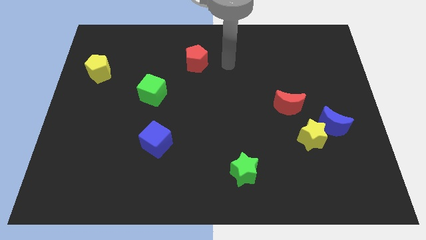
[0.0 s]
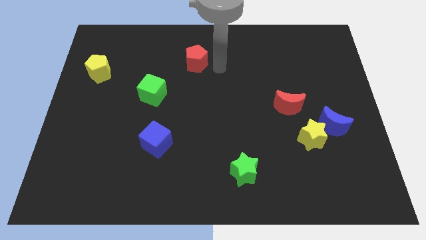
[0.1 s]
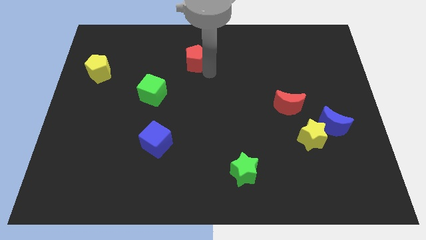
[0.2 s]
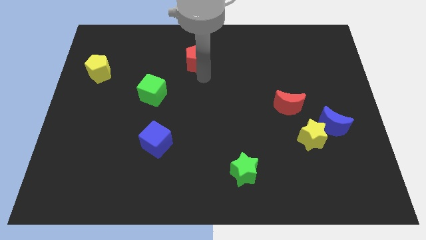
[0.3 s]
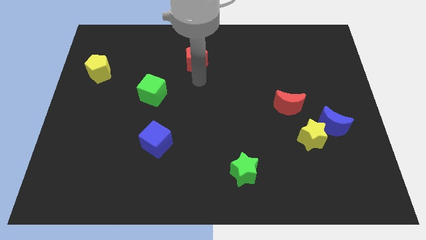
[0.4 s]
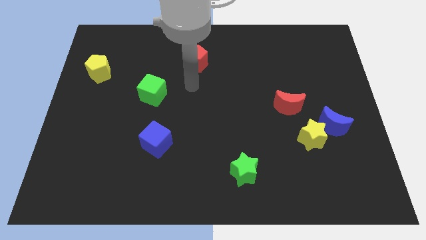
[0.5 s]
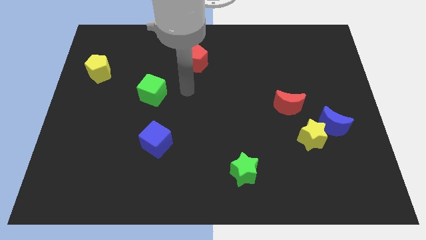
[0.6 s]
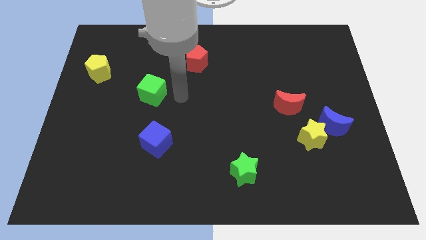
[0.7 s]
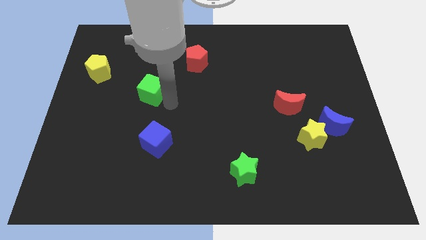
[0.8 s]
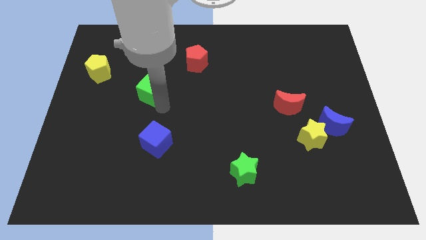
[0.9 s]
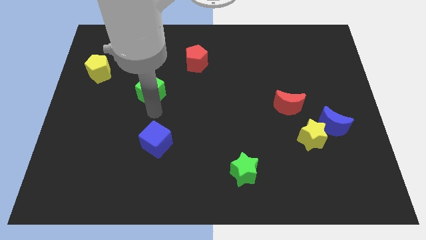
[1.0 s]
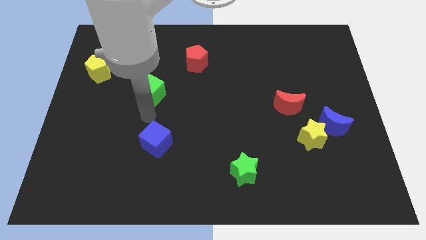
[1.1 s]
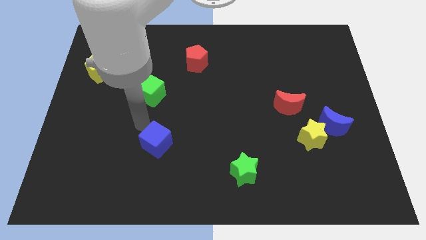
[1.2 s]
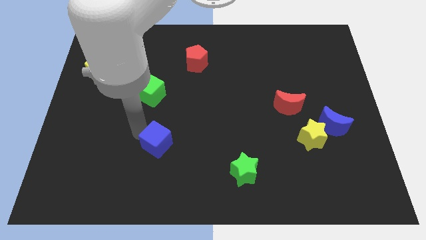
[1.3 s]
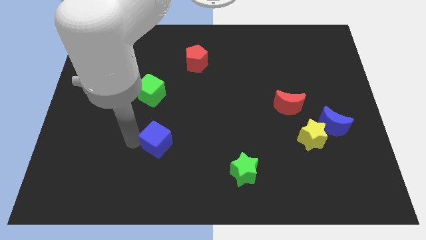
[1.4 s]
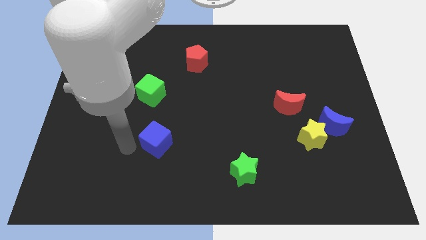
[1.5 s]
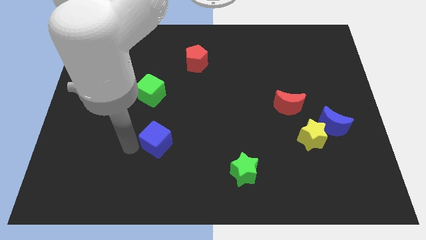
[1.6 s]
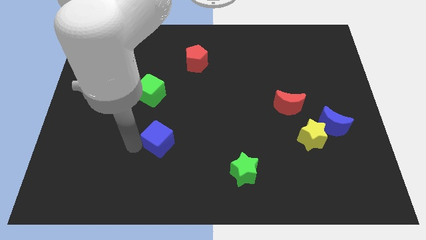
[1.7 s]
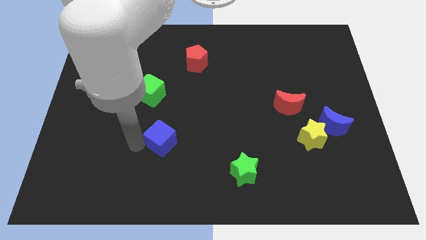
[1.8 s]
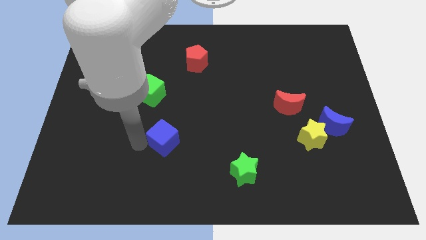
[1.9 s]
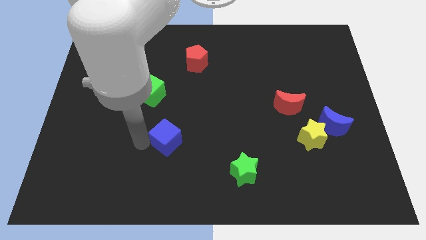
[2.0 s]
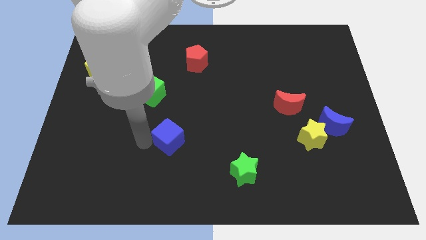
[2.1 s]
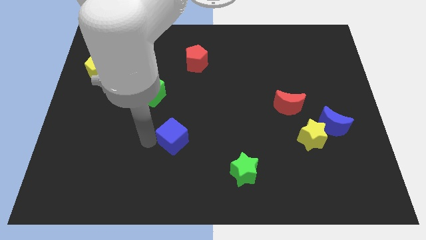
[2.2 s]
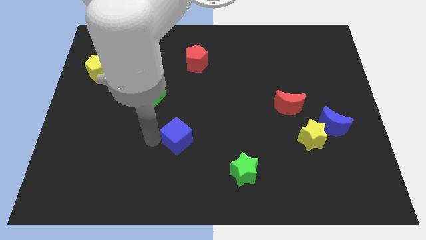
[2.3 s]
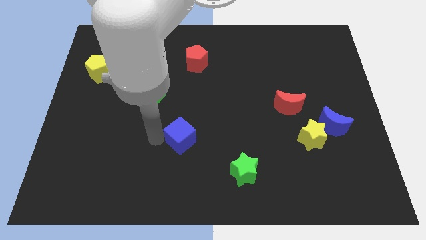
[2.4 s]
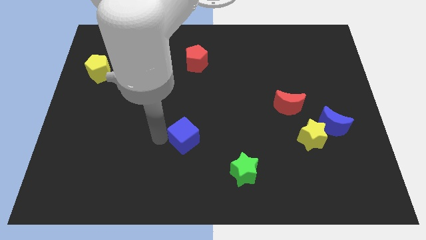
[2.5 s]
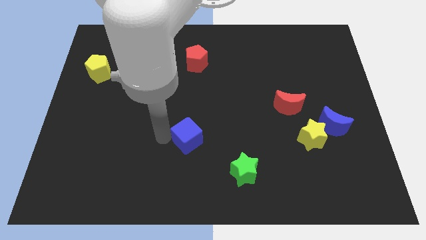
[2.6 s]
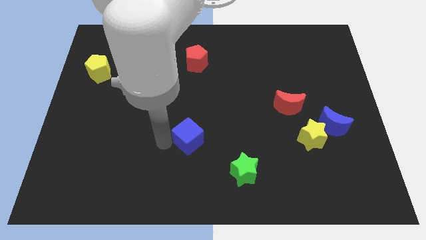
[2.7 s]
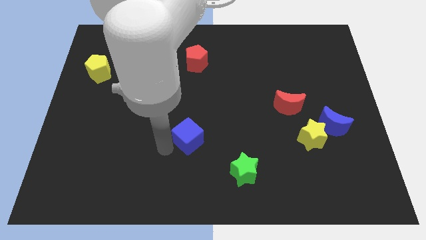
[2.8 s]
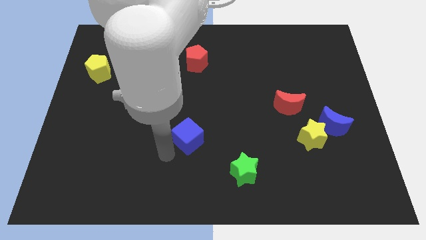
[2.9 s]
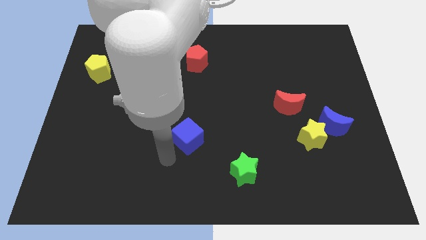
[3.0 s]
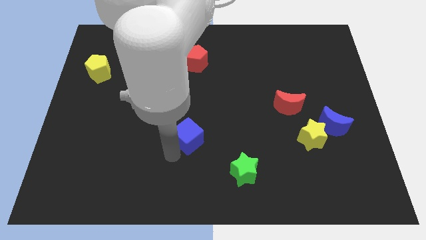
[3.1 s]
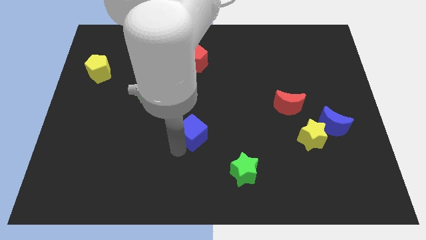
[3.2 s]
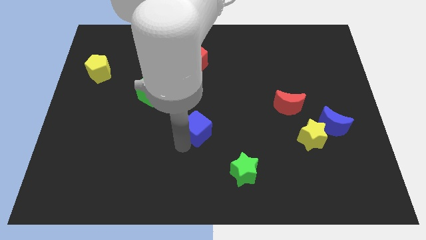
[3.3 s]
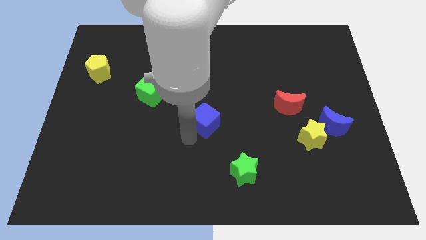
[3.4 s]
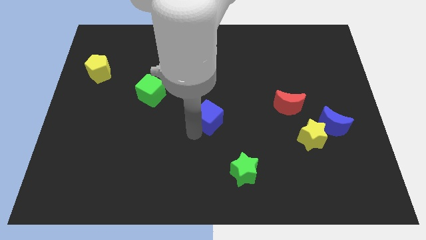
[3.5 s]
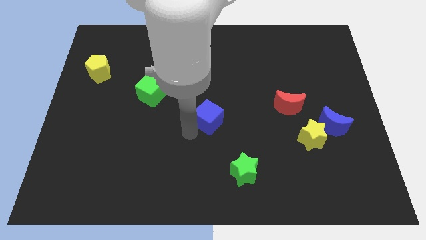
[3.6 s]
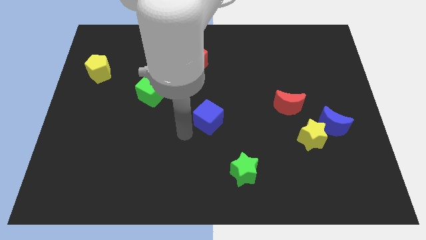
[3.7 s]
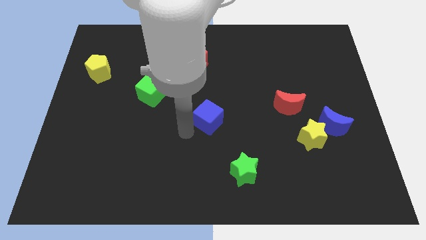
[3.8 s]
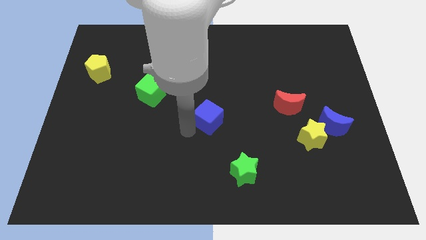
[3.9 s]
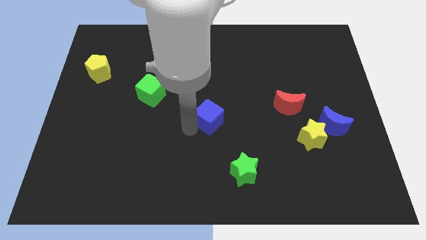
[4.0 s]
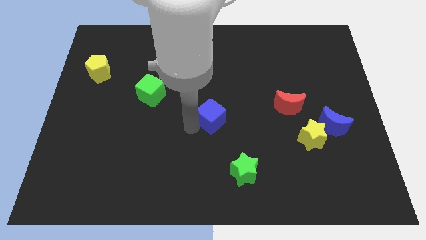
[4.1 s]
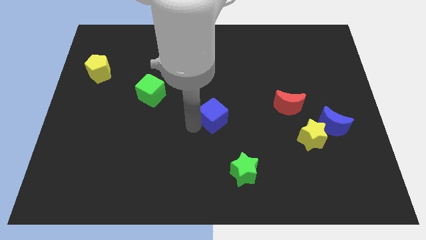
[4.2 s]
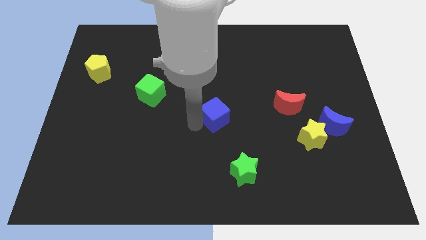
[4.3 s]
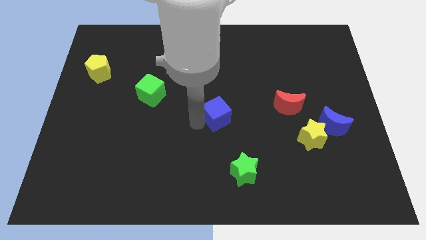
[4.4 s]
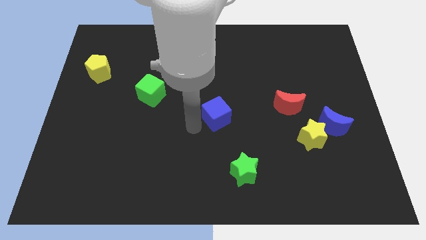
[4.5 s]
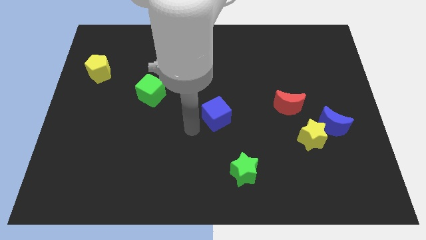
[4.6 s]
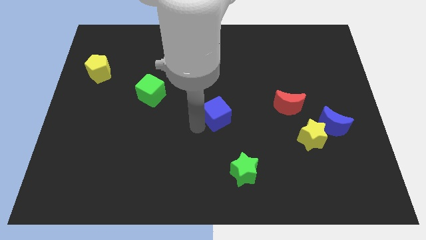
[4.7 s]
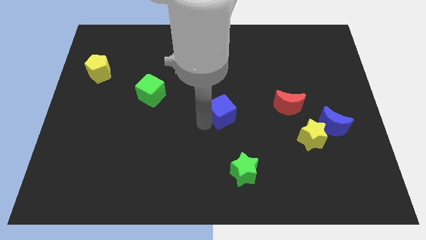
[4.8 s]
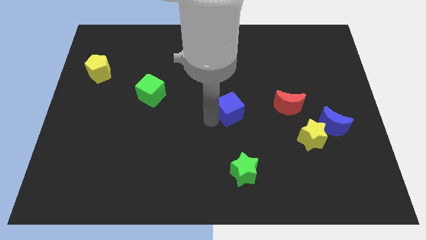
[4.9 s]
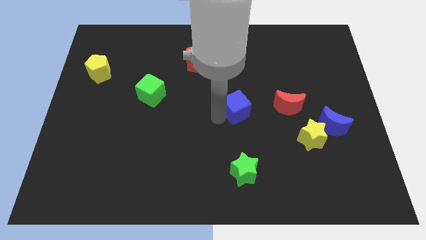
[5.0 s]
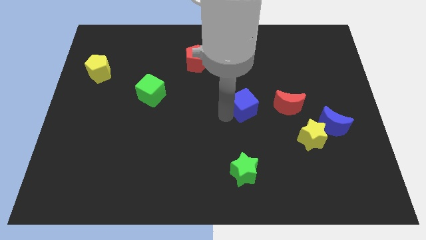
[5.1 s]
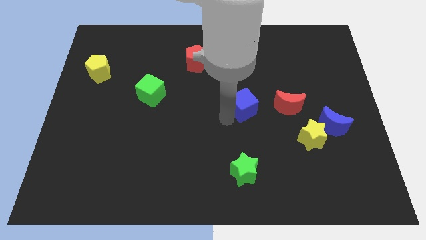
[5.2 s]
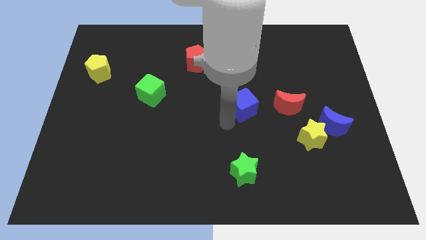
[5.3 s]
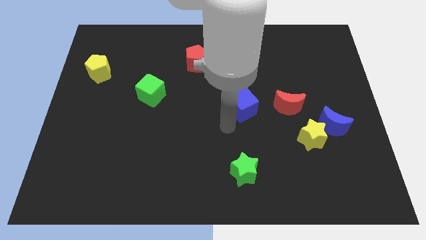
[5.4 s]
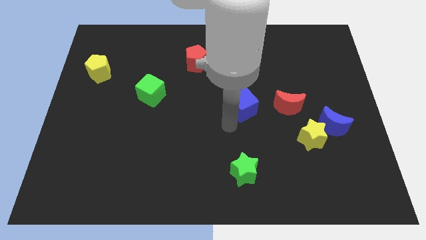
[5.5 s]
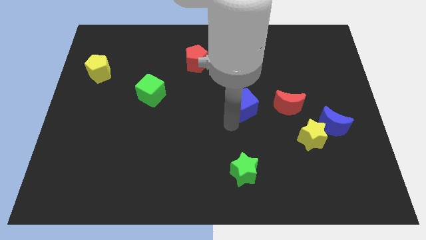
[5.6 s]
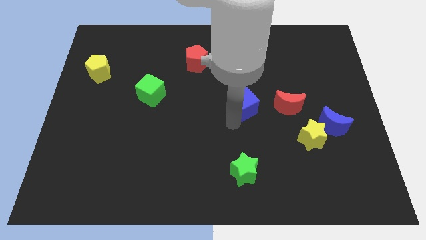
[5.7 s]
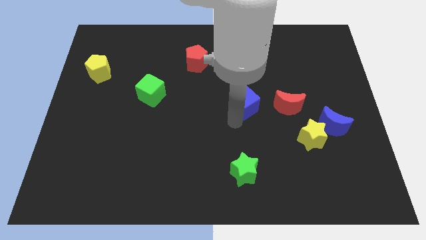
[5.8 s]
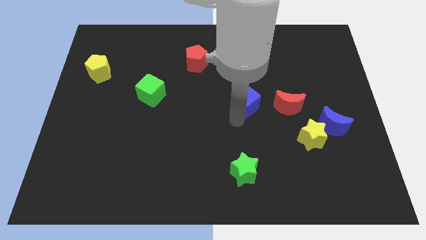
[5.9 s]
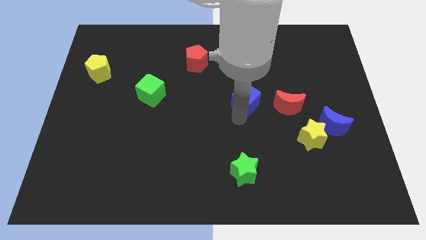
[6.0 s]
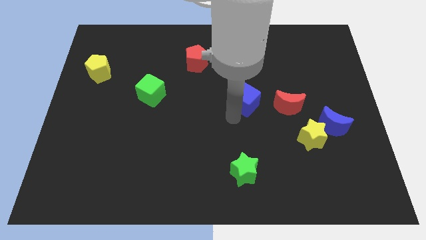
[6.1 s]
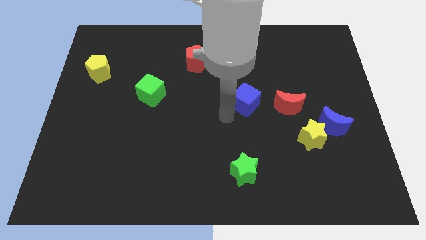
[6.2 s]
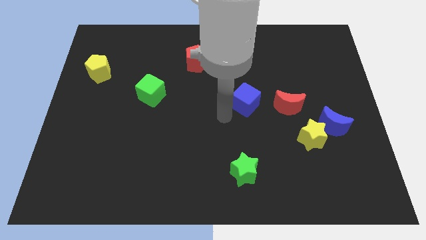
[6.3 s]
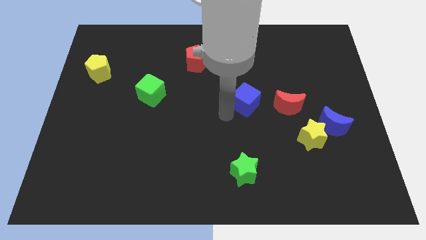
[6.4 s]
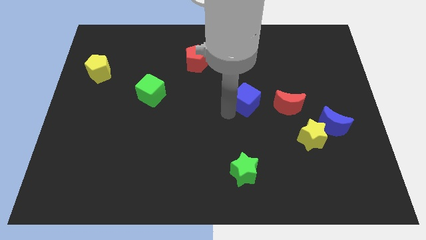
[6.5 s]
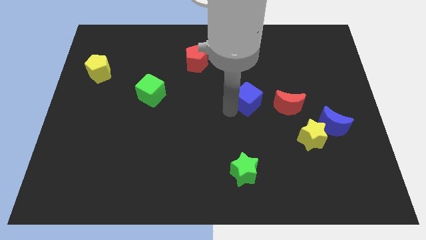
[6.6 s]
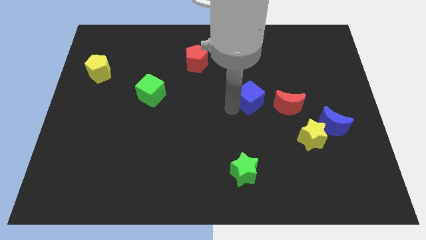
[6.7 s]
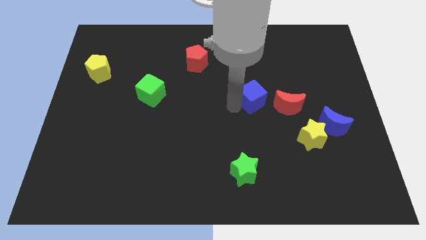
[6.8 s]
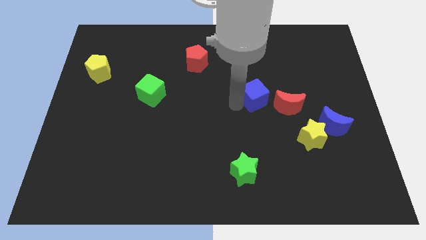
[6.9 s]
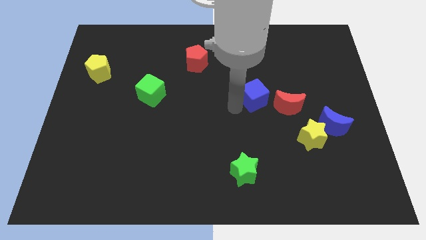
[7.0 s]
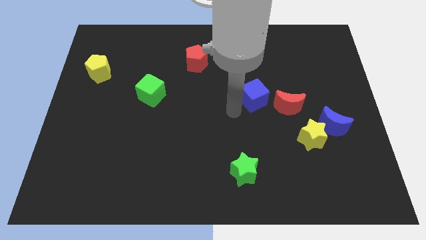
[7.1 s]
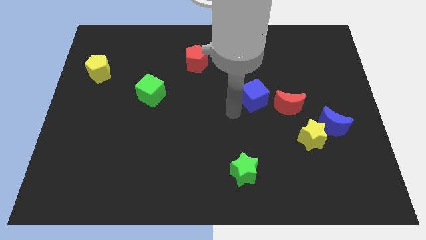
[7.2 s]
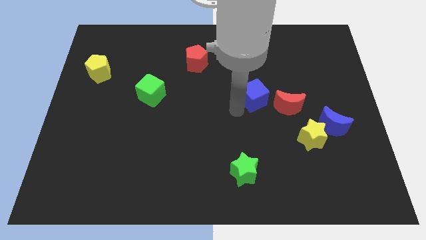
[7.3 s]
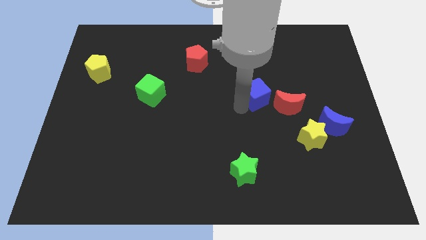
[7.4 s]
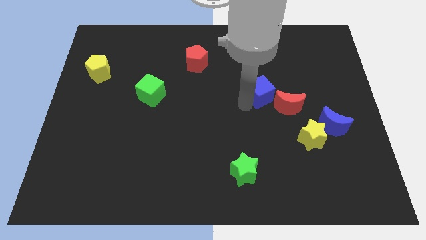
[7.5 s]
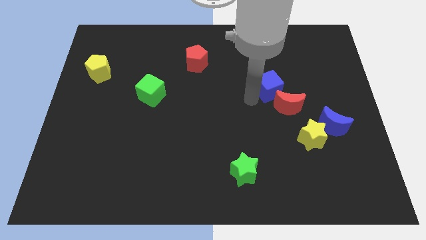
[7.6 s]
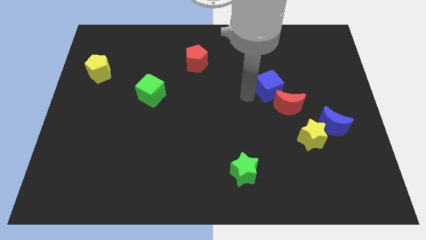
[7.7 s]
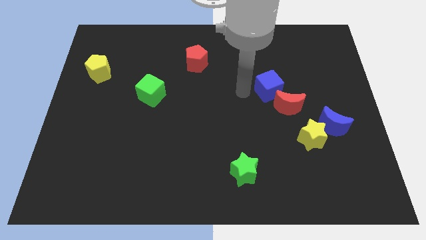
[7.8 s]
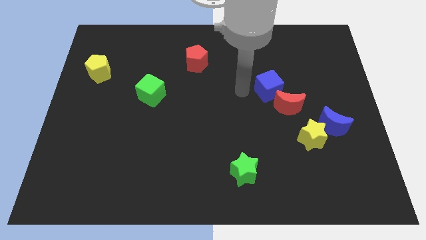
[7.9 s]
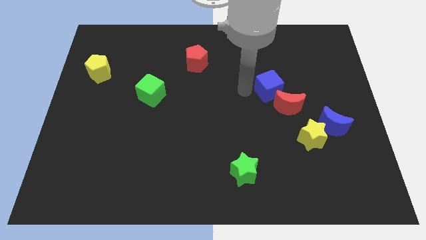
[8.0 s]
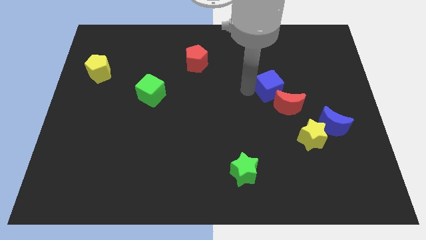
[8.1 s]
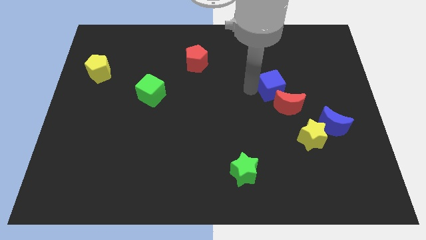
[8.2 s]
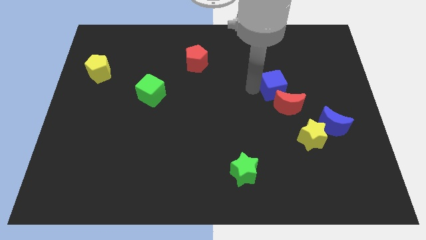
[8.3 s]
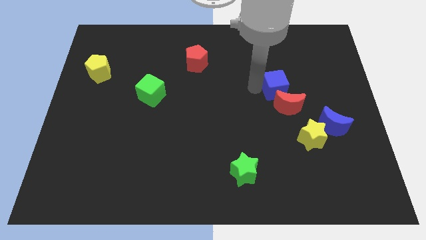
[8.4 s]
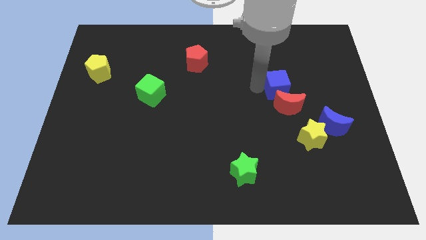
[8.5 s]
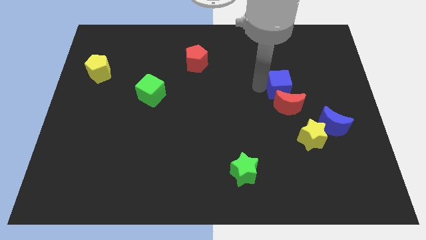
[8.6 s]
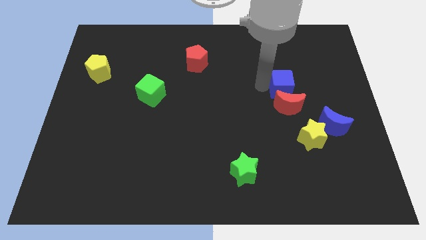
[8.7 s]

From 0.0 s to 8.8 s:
move the blue cube diagonally up and to the right of the red moon
